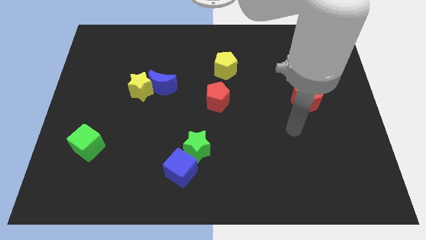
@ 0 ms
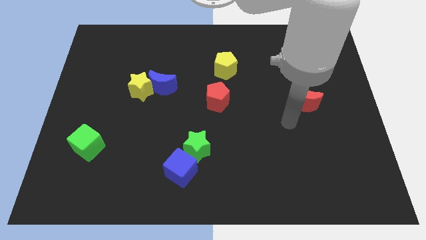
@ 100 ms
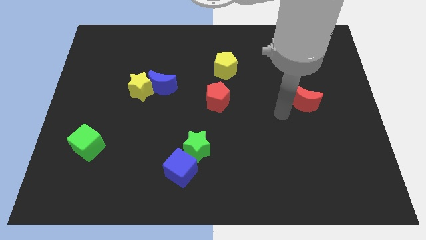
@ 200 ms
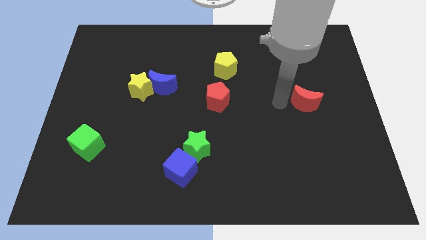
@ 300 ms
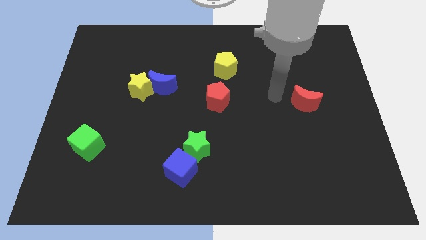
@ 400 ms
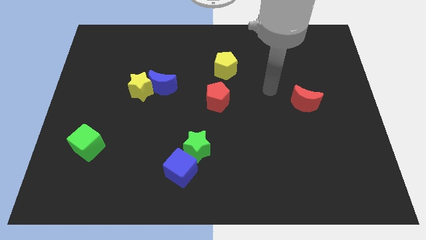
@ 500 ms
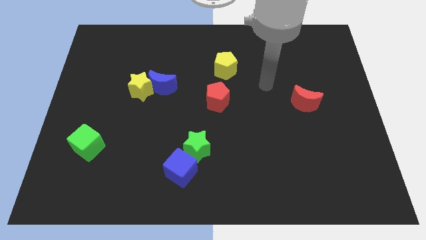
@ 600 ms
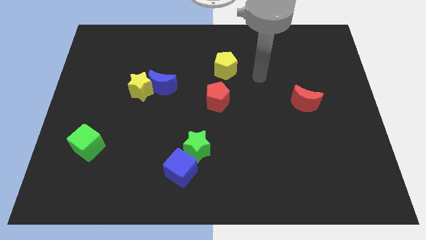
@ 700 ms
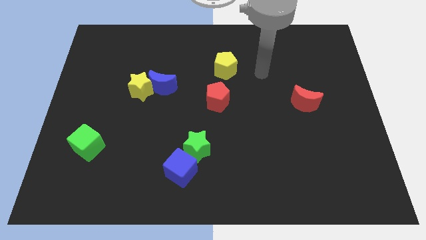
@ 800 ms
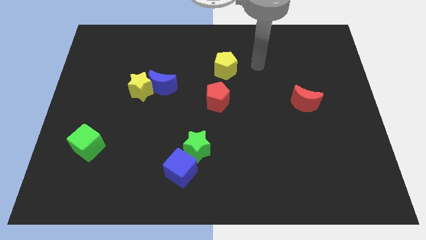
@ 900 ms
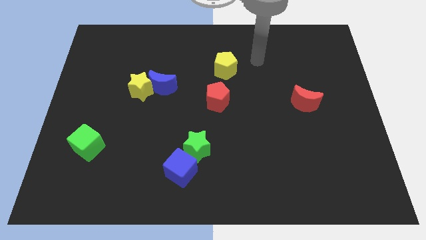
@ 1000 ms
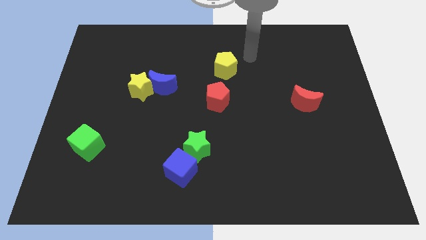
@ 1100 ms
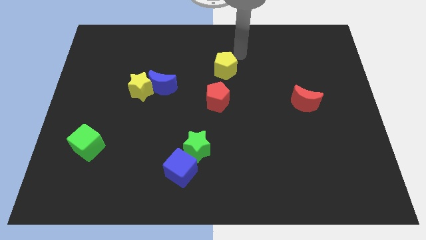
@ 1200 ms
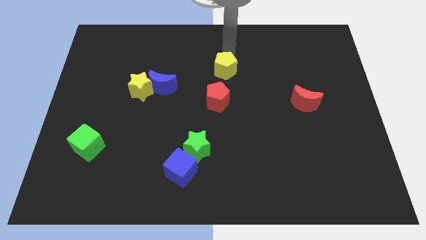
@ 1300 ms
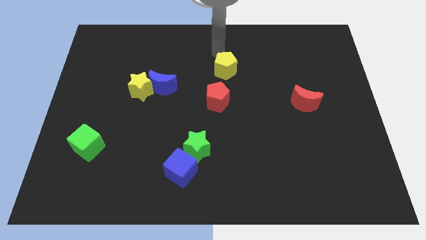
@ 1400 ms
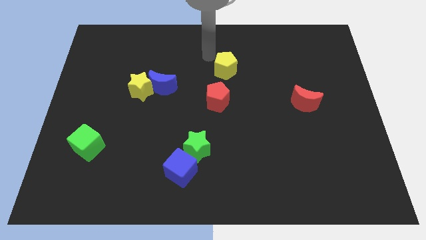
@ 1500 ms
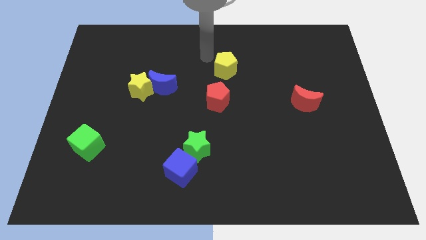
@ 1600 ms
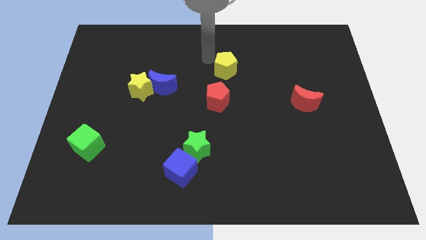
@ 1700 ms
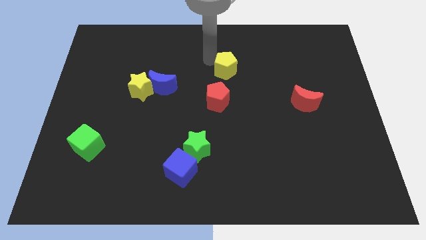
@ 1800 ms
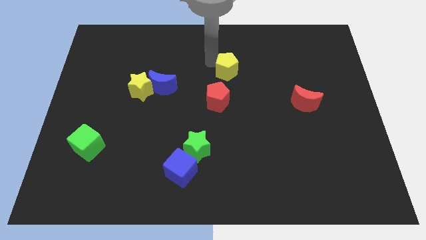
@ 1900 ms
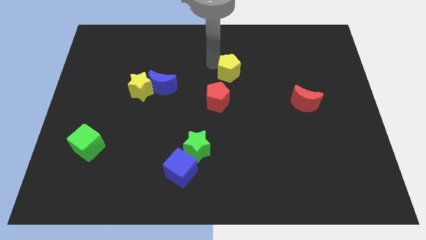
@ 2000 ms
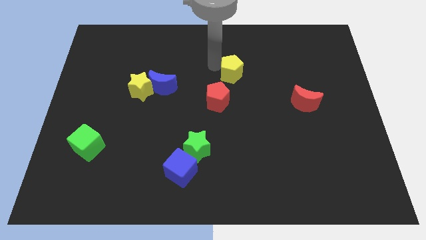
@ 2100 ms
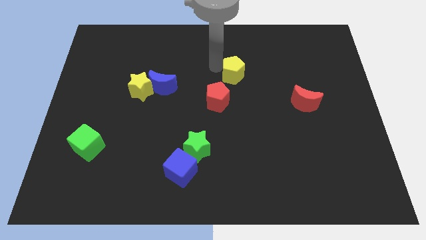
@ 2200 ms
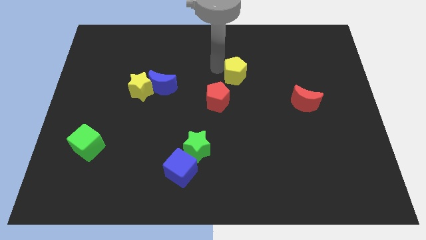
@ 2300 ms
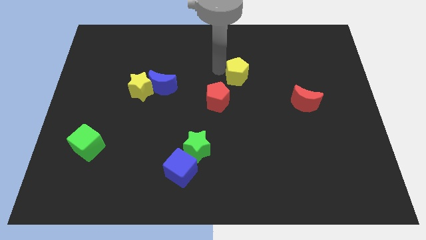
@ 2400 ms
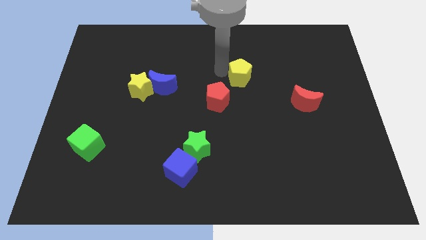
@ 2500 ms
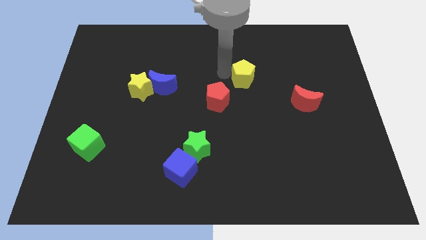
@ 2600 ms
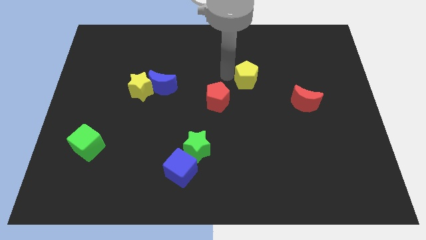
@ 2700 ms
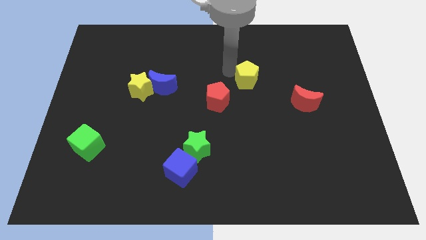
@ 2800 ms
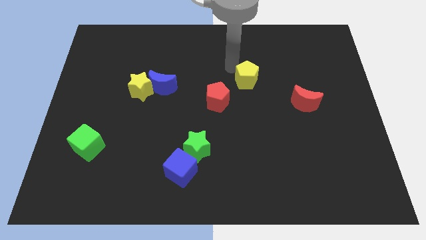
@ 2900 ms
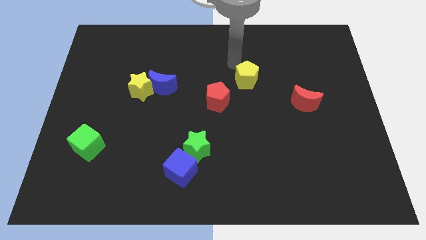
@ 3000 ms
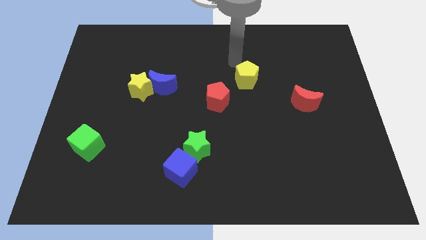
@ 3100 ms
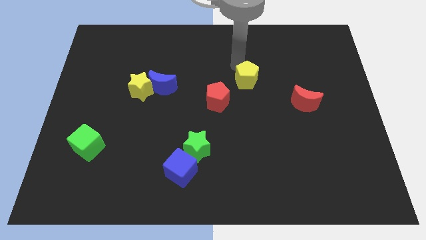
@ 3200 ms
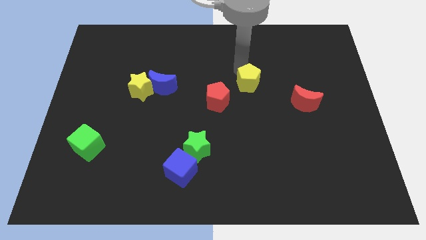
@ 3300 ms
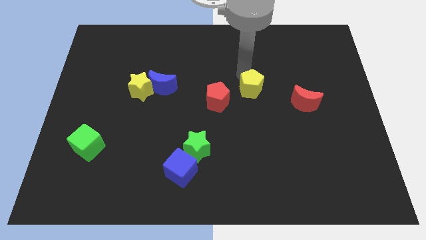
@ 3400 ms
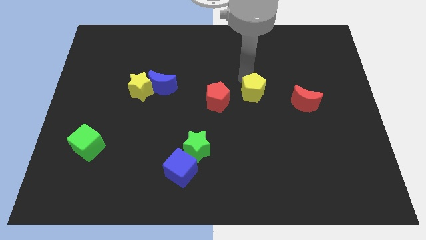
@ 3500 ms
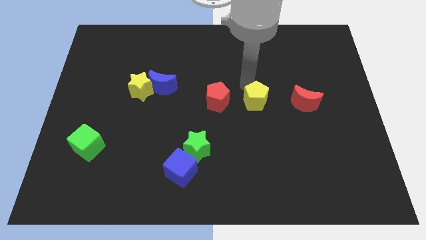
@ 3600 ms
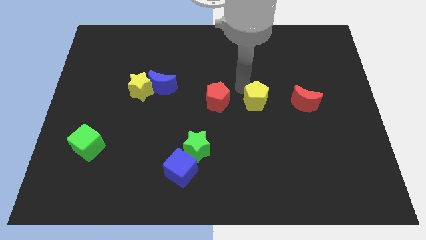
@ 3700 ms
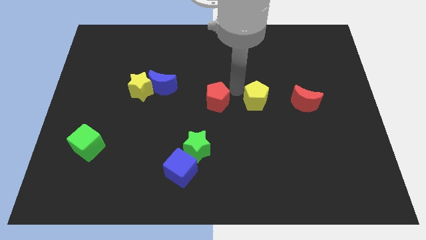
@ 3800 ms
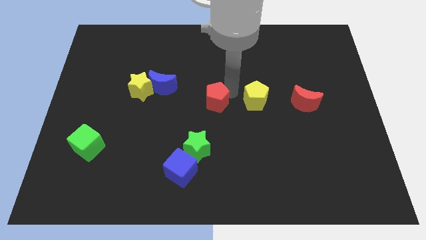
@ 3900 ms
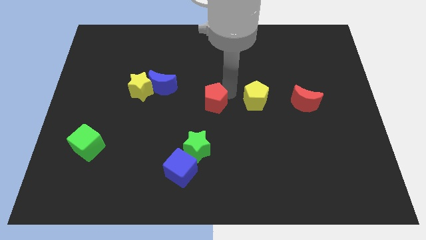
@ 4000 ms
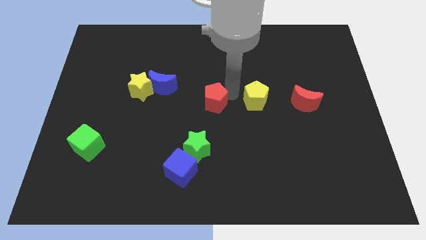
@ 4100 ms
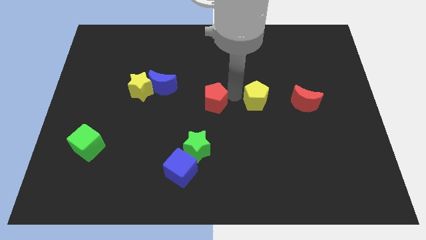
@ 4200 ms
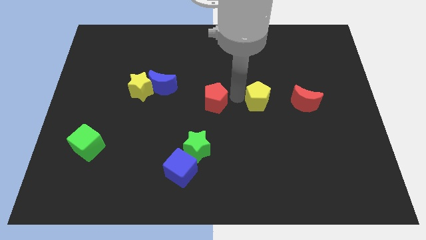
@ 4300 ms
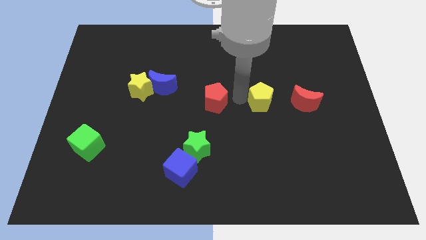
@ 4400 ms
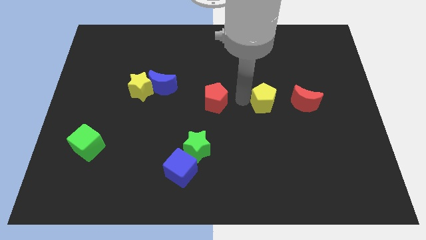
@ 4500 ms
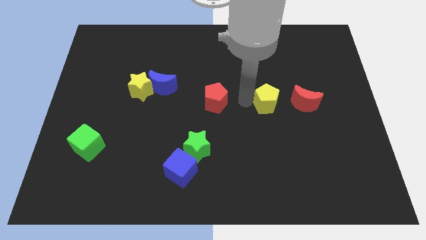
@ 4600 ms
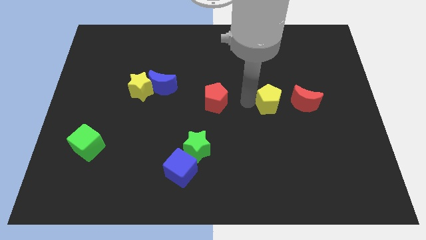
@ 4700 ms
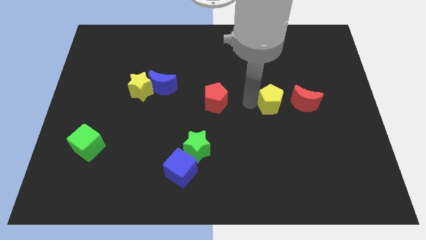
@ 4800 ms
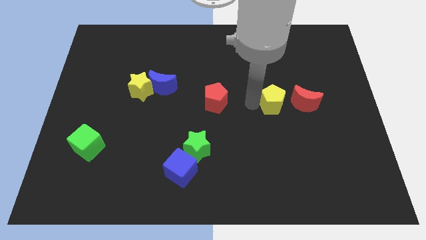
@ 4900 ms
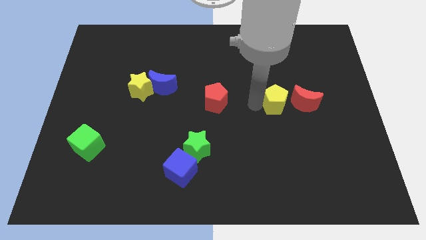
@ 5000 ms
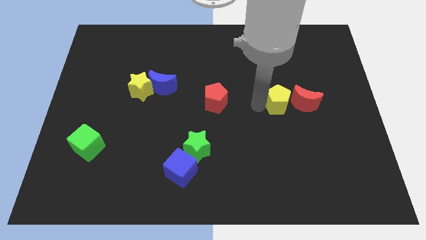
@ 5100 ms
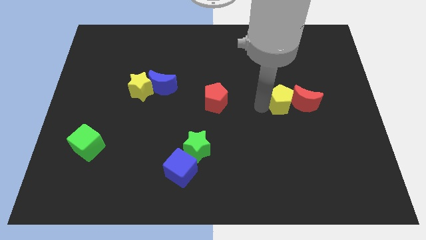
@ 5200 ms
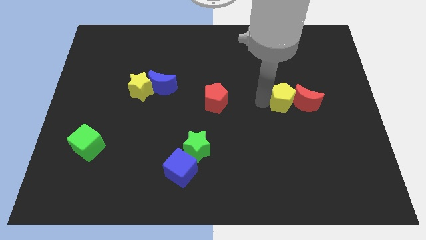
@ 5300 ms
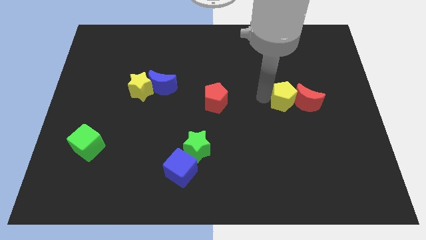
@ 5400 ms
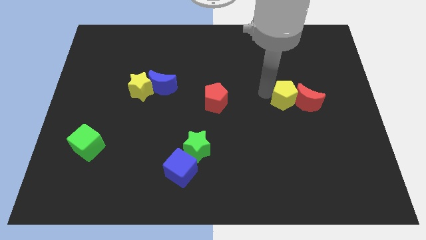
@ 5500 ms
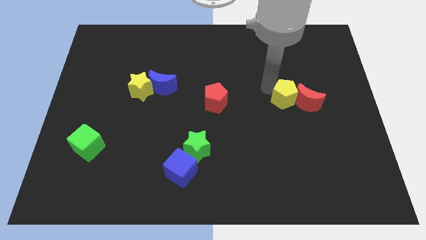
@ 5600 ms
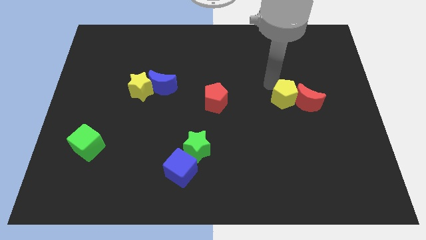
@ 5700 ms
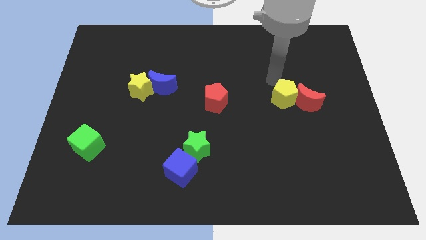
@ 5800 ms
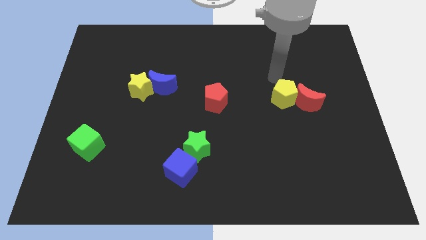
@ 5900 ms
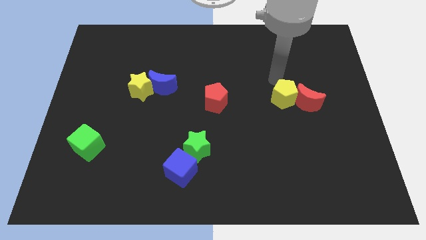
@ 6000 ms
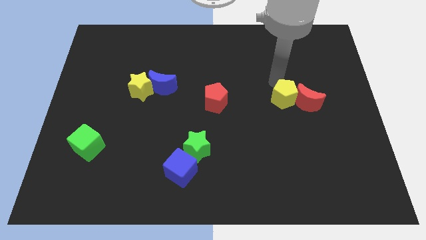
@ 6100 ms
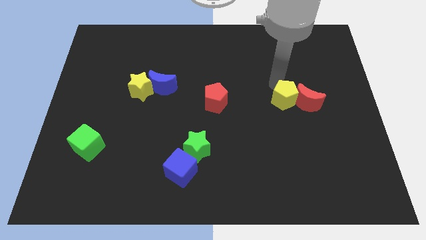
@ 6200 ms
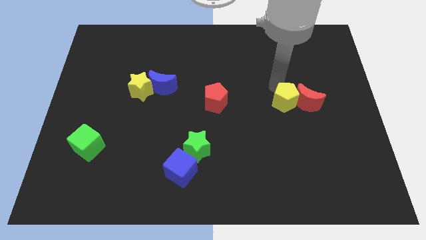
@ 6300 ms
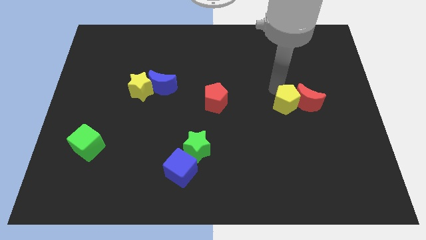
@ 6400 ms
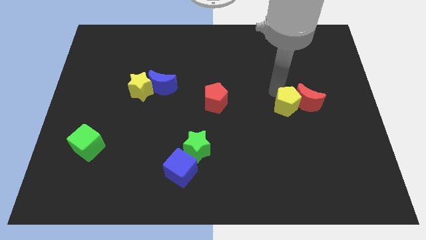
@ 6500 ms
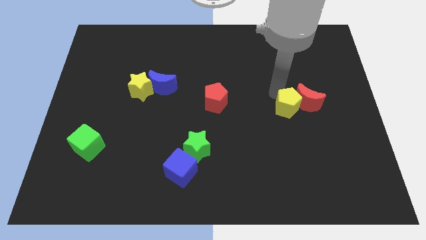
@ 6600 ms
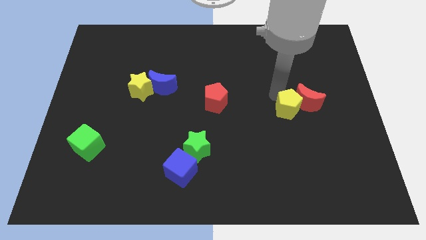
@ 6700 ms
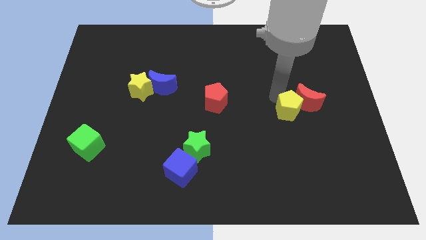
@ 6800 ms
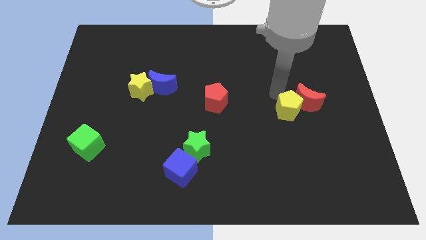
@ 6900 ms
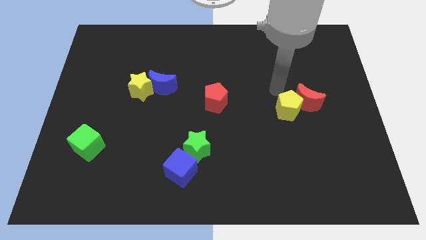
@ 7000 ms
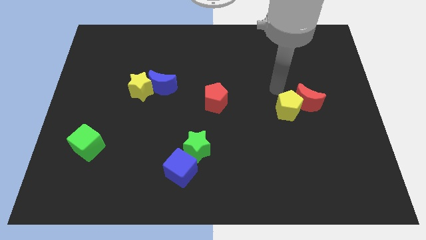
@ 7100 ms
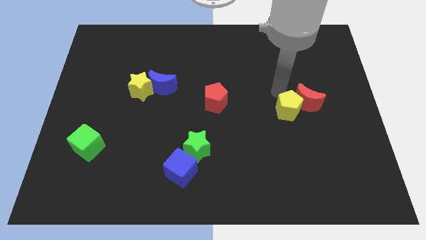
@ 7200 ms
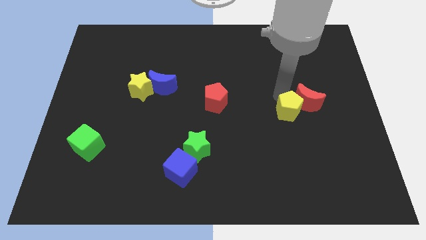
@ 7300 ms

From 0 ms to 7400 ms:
slide the yellow pentagon down and to the right diagonally

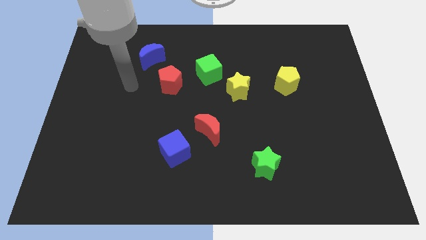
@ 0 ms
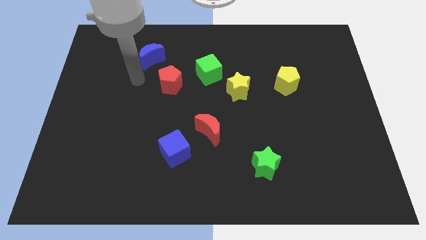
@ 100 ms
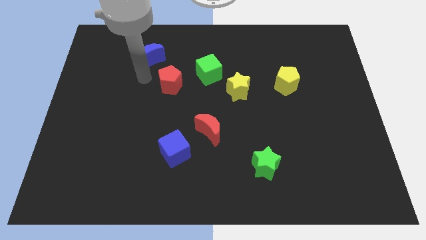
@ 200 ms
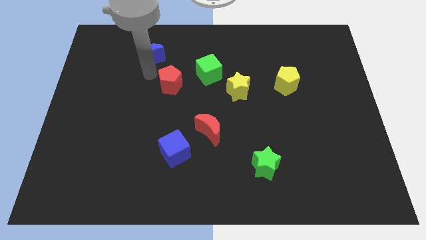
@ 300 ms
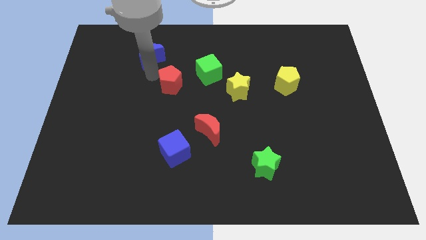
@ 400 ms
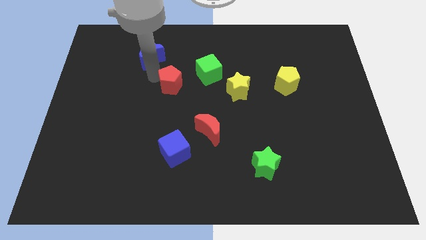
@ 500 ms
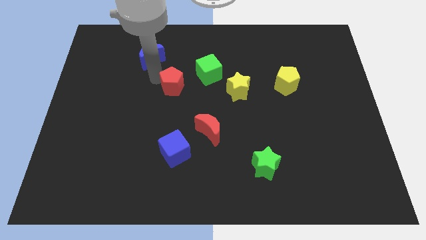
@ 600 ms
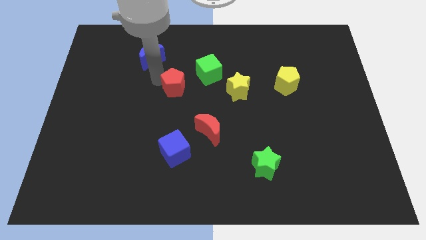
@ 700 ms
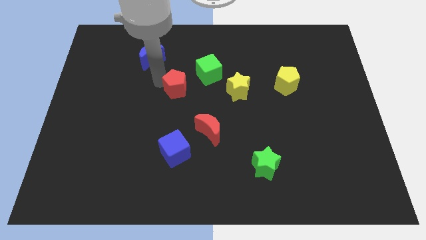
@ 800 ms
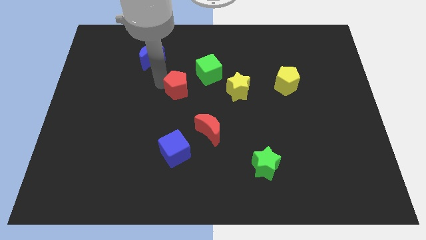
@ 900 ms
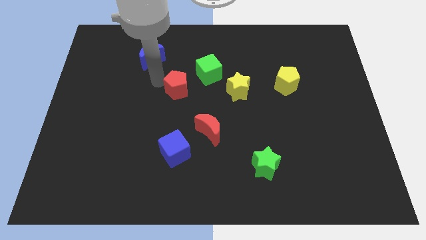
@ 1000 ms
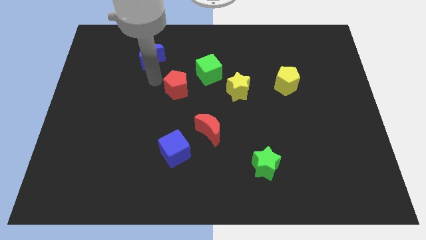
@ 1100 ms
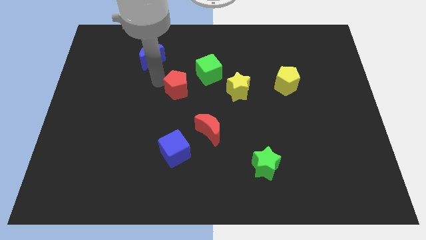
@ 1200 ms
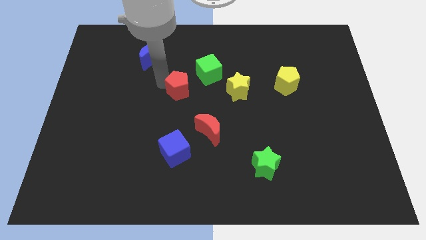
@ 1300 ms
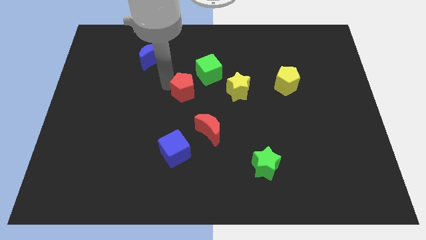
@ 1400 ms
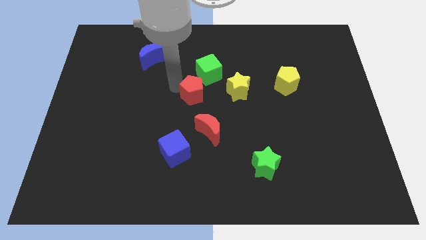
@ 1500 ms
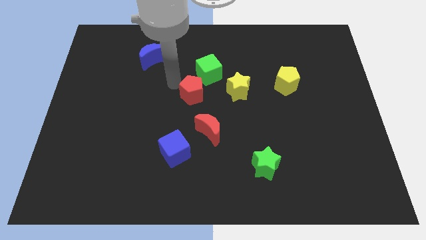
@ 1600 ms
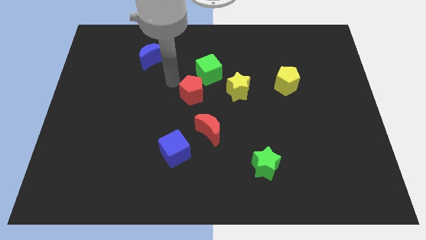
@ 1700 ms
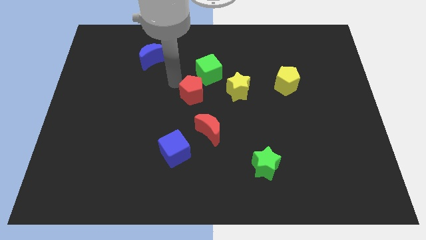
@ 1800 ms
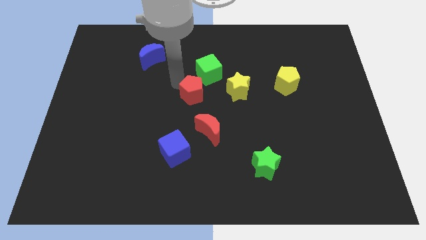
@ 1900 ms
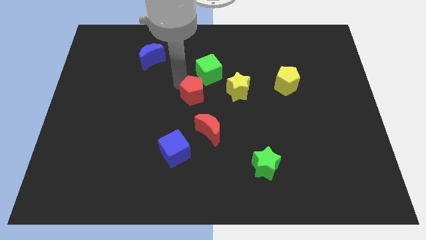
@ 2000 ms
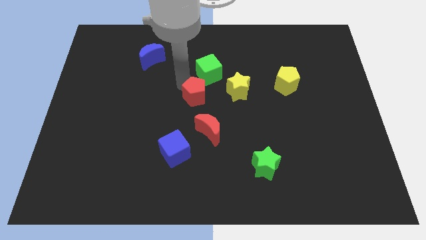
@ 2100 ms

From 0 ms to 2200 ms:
push the red pentagon downwards and to the right a little
